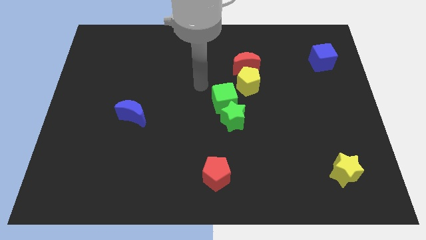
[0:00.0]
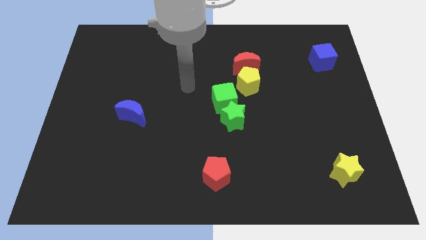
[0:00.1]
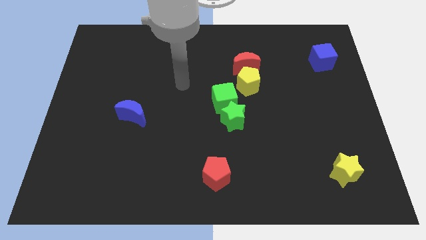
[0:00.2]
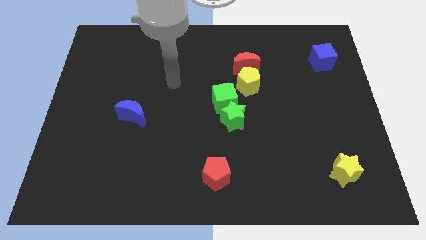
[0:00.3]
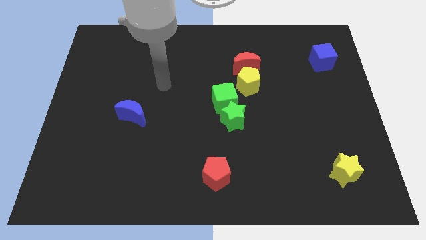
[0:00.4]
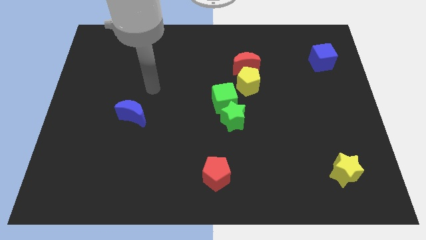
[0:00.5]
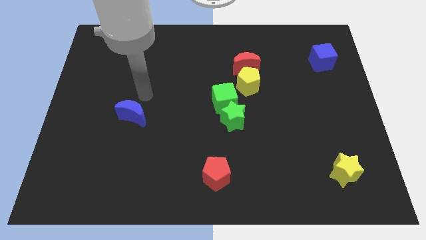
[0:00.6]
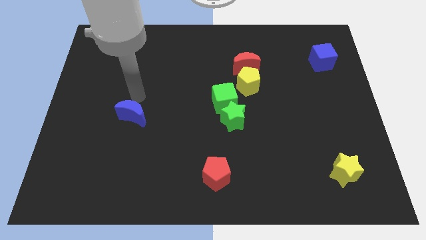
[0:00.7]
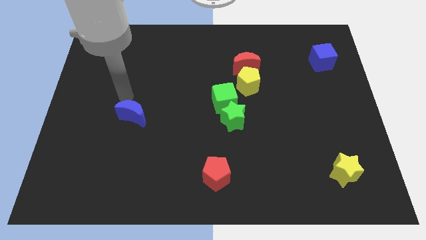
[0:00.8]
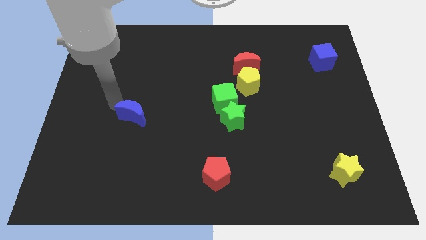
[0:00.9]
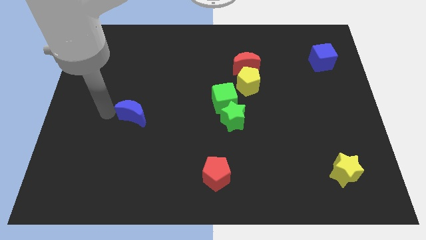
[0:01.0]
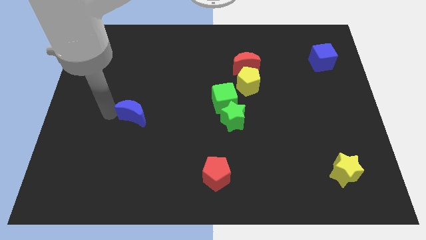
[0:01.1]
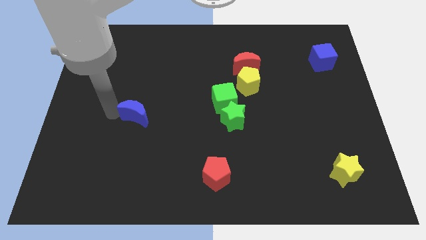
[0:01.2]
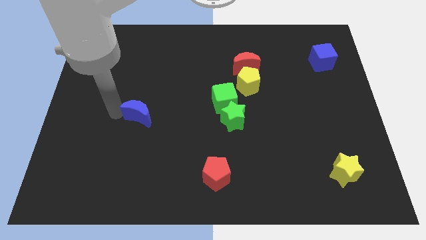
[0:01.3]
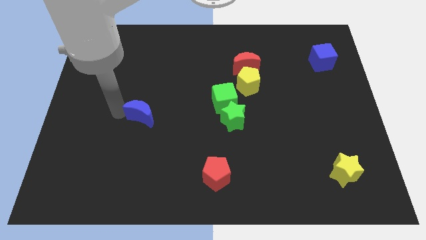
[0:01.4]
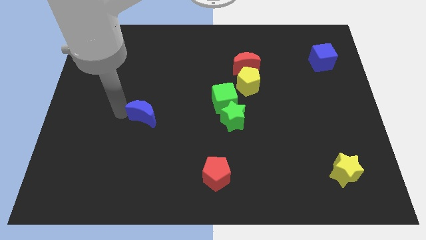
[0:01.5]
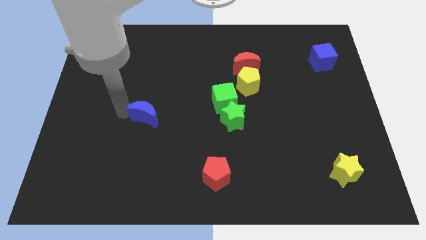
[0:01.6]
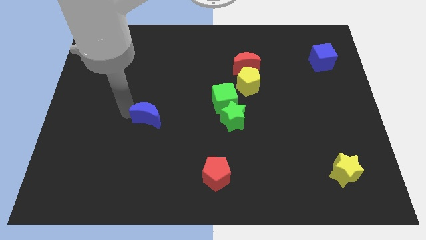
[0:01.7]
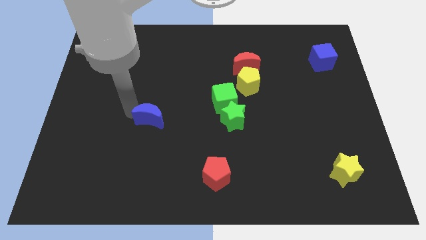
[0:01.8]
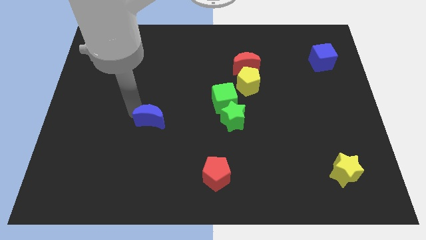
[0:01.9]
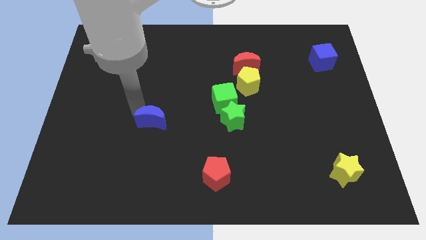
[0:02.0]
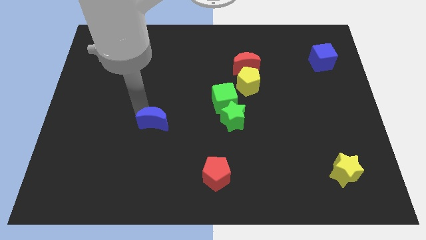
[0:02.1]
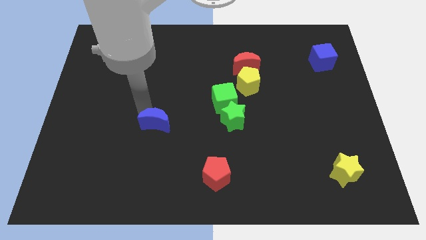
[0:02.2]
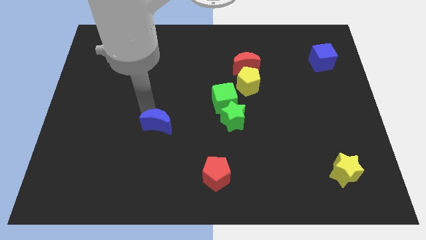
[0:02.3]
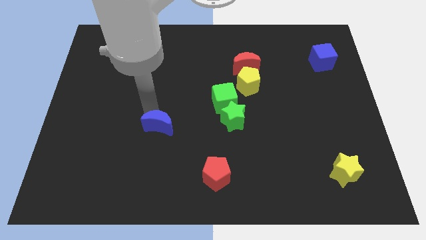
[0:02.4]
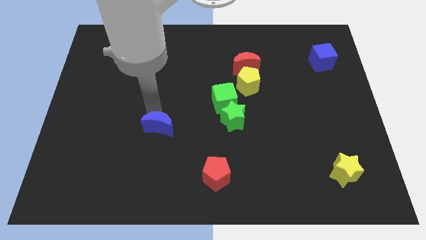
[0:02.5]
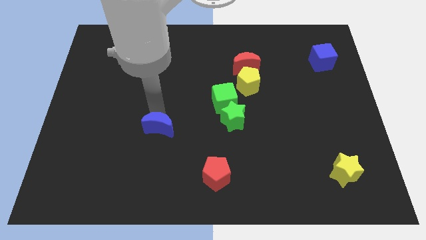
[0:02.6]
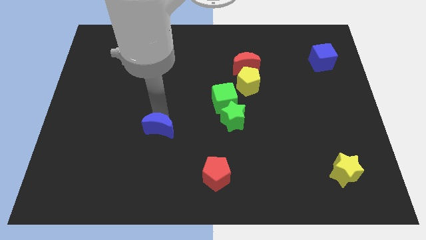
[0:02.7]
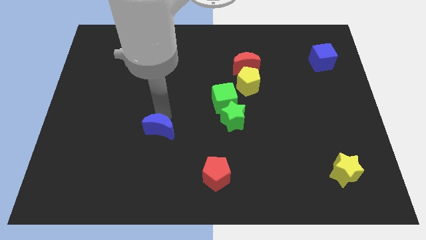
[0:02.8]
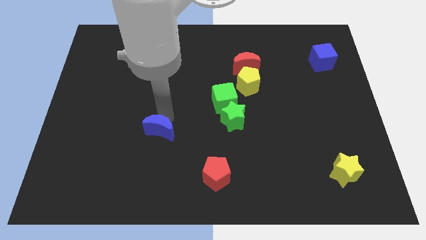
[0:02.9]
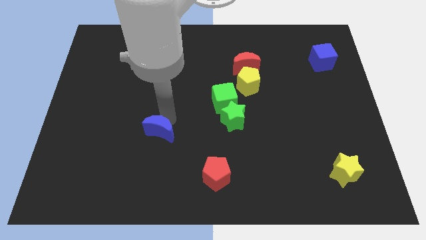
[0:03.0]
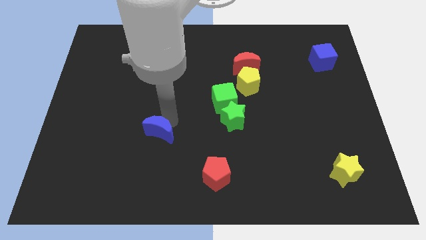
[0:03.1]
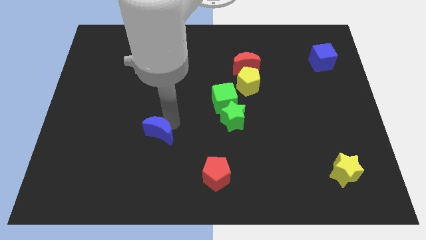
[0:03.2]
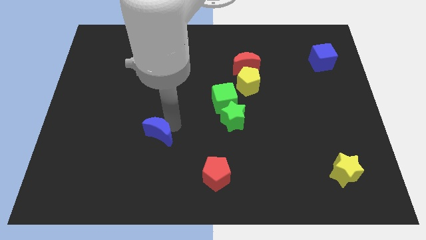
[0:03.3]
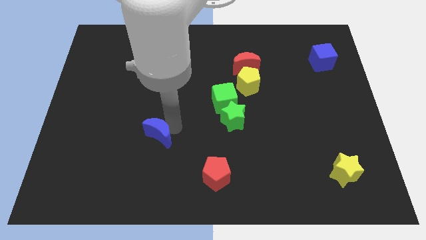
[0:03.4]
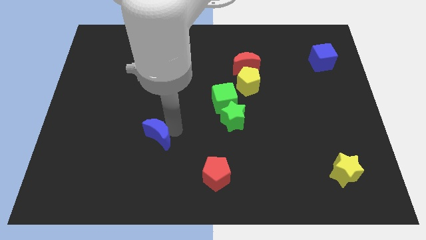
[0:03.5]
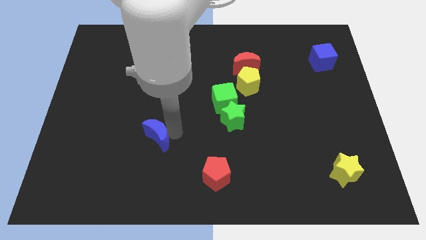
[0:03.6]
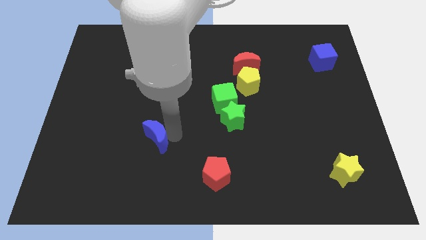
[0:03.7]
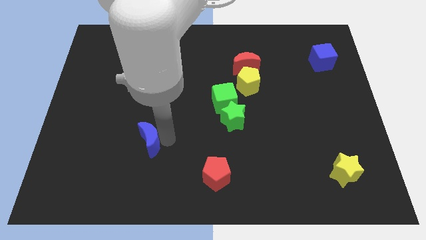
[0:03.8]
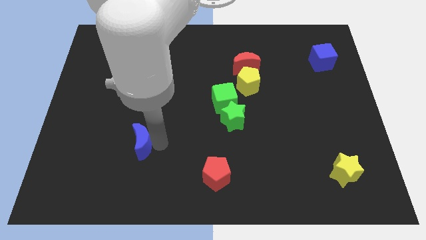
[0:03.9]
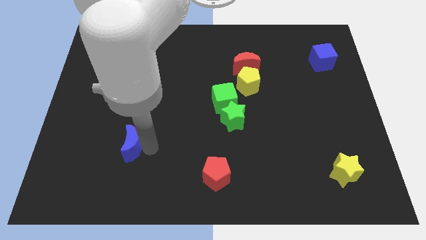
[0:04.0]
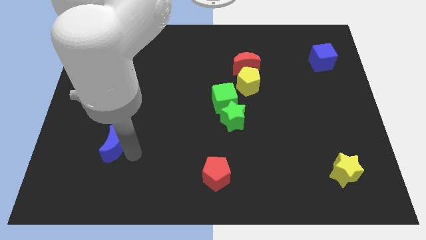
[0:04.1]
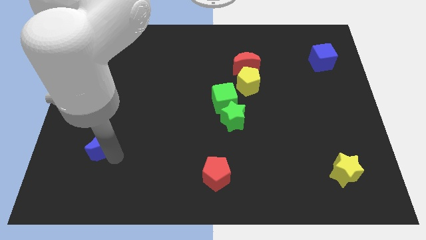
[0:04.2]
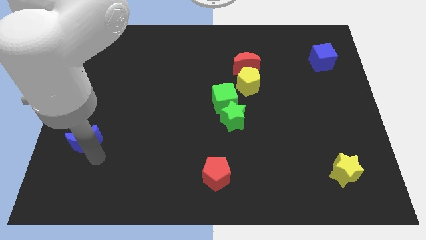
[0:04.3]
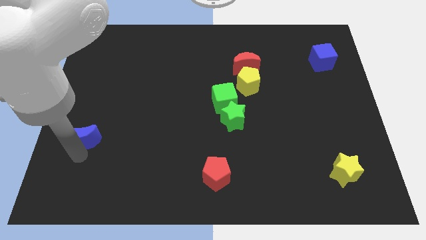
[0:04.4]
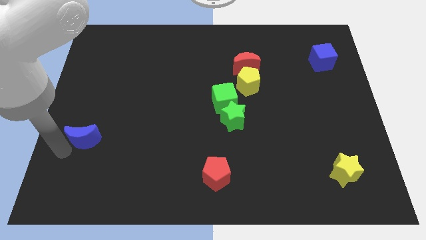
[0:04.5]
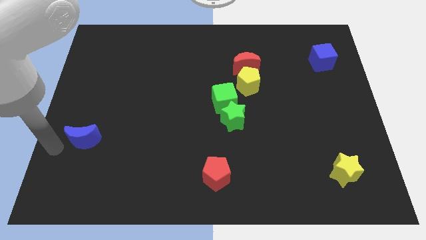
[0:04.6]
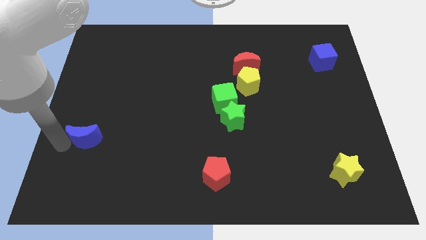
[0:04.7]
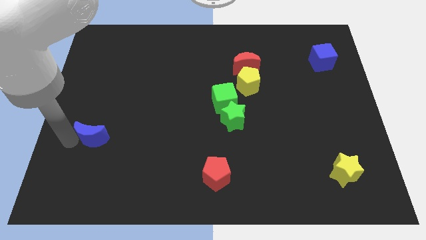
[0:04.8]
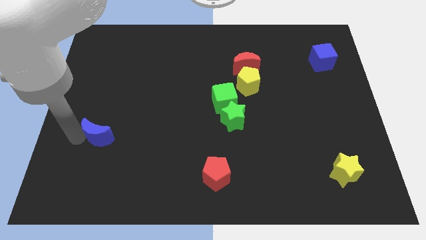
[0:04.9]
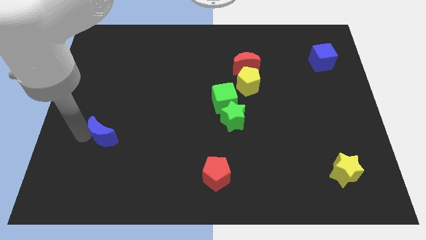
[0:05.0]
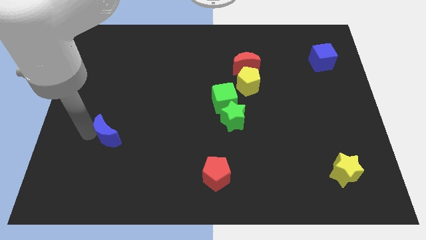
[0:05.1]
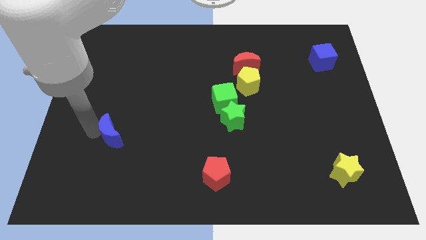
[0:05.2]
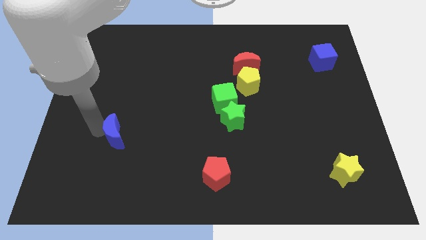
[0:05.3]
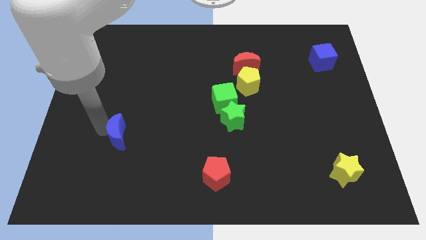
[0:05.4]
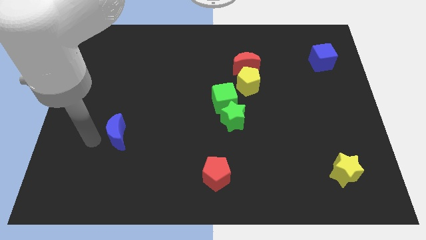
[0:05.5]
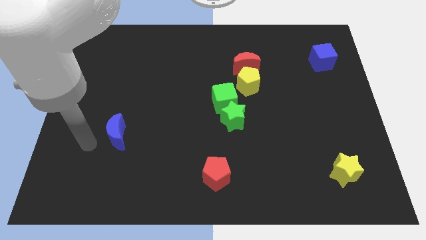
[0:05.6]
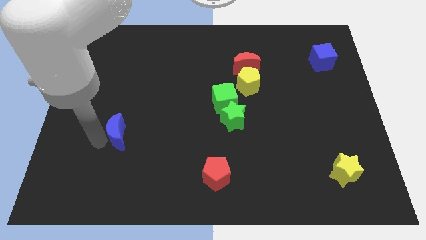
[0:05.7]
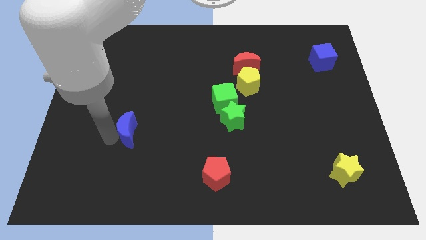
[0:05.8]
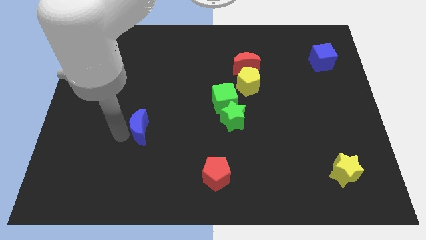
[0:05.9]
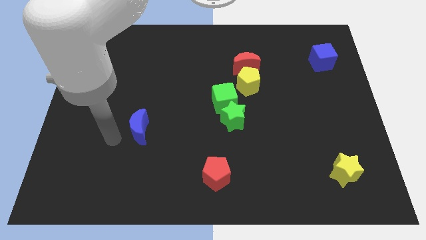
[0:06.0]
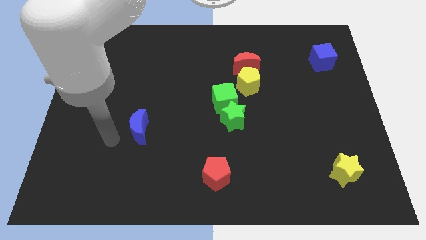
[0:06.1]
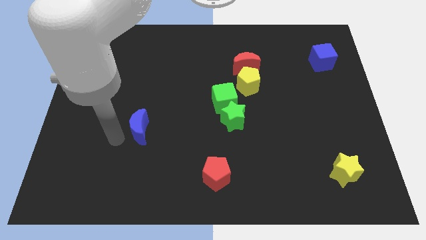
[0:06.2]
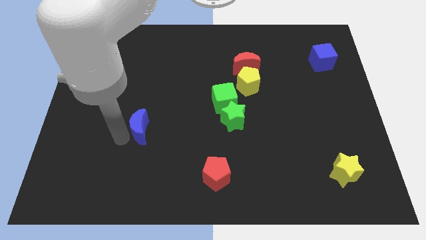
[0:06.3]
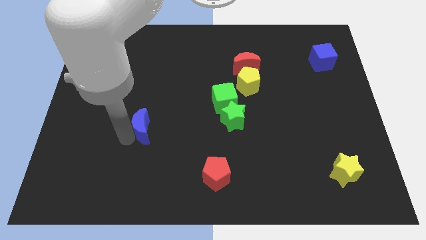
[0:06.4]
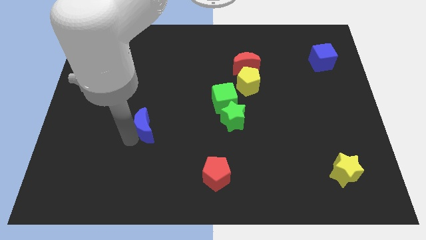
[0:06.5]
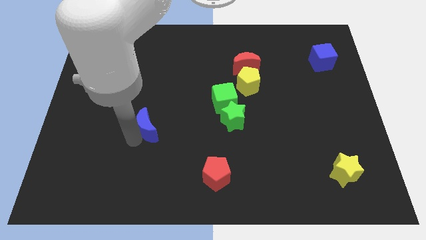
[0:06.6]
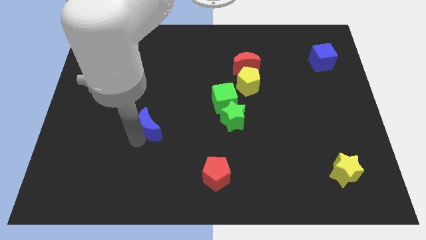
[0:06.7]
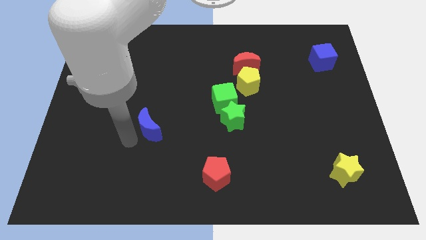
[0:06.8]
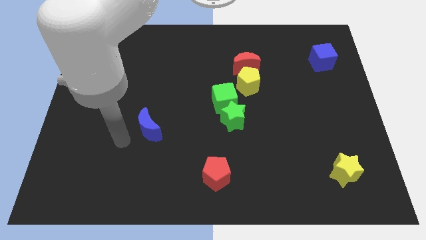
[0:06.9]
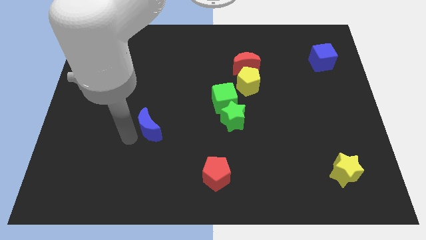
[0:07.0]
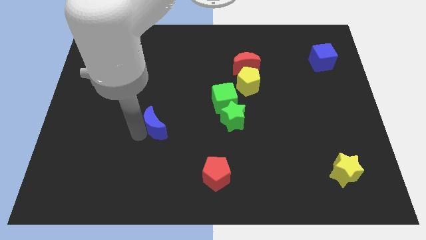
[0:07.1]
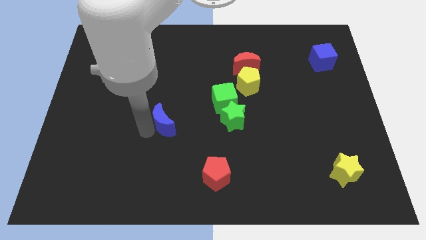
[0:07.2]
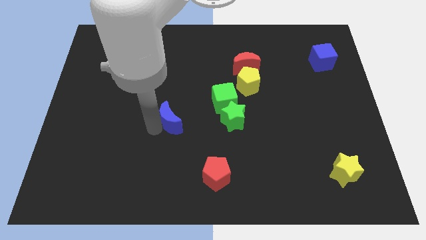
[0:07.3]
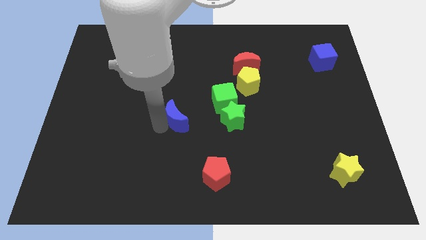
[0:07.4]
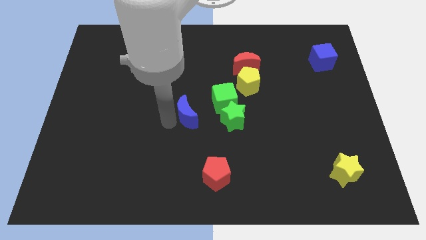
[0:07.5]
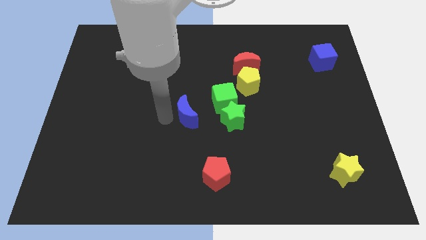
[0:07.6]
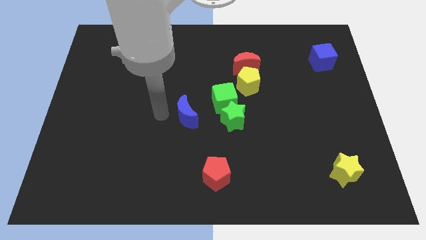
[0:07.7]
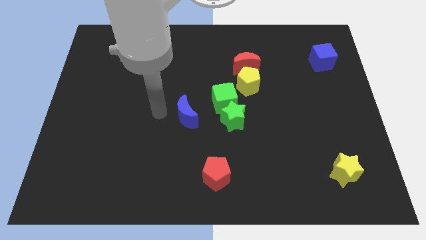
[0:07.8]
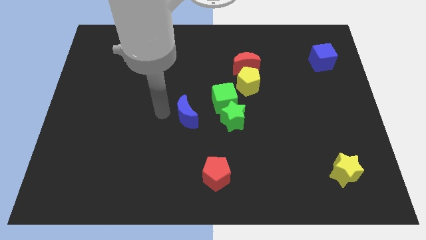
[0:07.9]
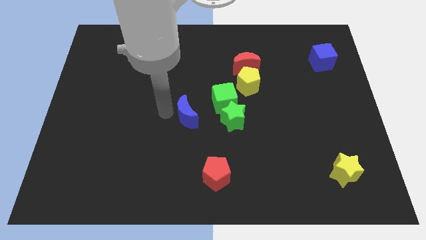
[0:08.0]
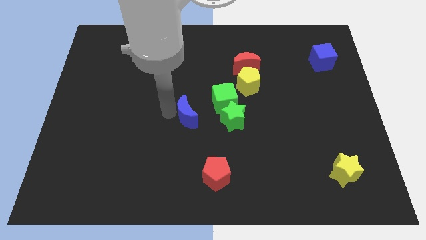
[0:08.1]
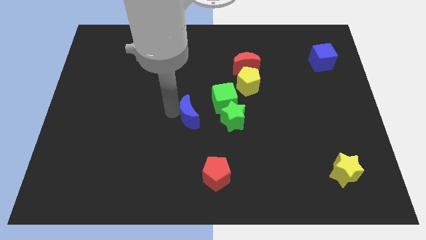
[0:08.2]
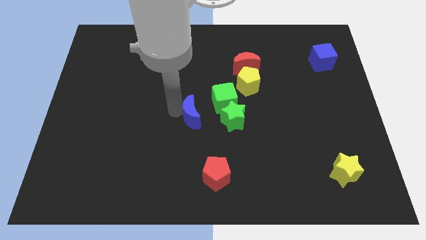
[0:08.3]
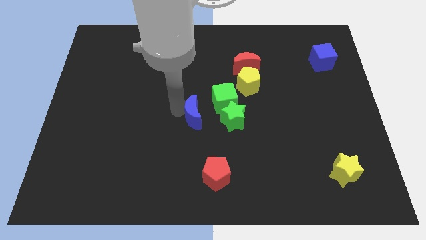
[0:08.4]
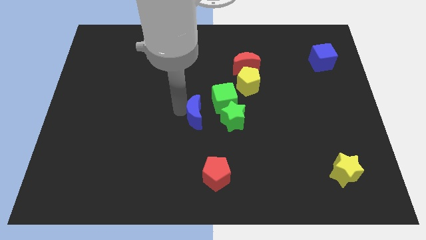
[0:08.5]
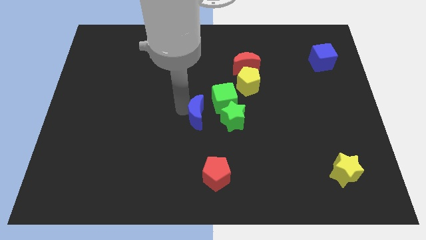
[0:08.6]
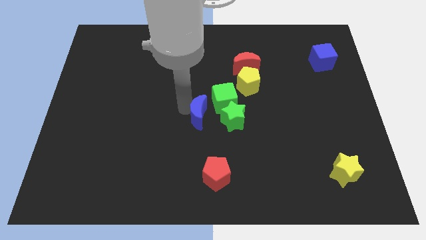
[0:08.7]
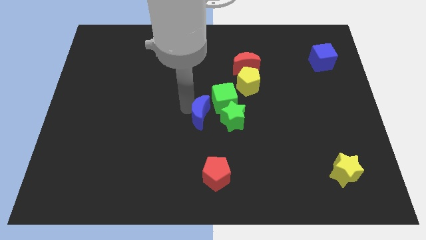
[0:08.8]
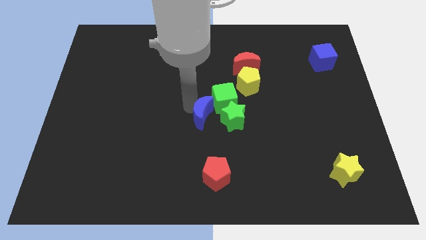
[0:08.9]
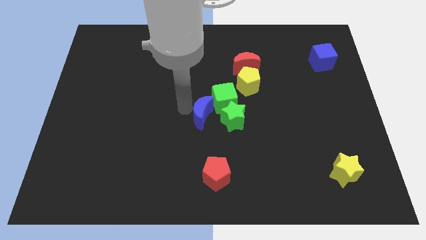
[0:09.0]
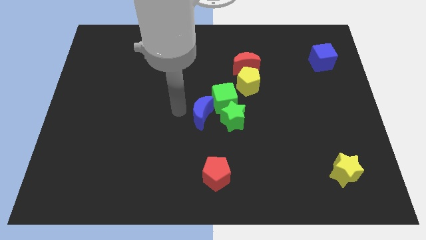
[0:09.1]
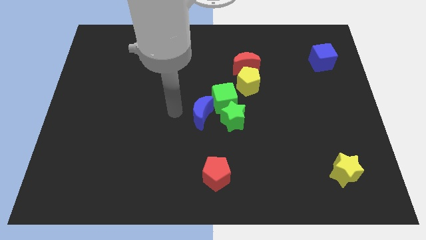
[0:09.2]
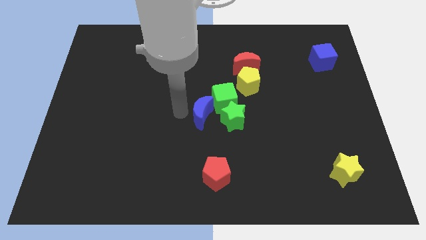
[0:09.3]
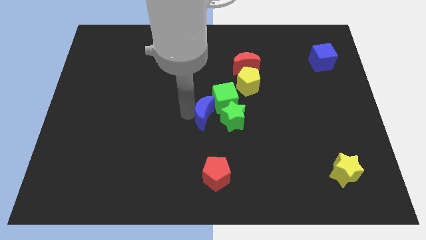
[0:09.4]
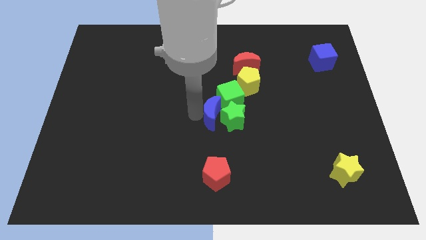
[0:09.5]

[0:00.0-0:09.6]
put the blue moon close to the green star
